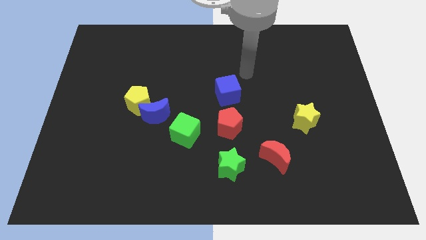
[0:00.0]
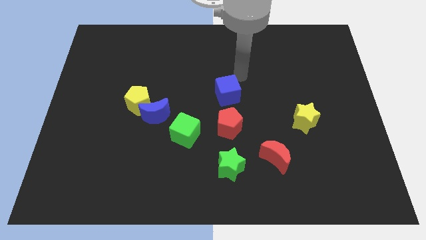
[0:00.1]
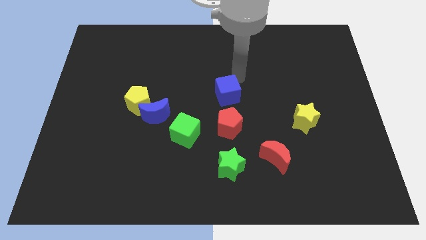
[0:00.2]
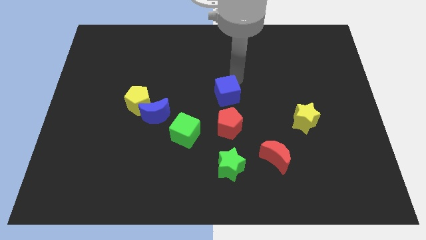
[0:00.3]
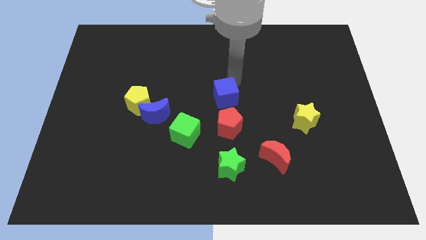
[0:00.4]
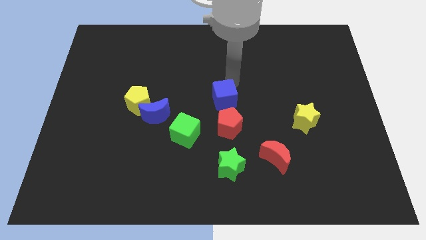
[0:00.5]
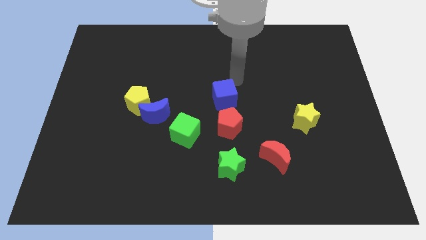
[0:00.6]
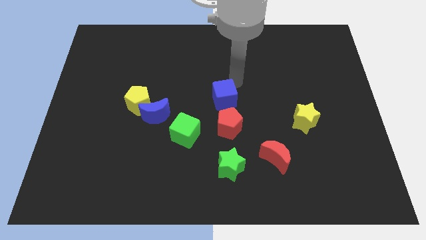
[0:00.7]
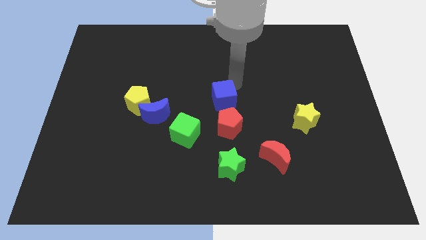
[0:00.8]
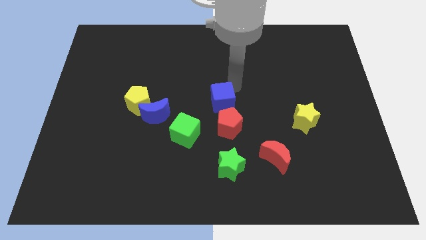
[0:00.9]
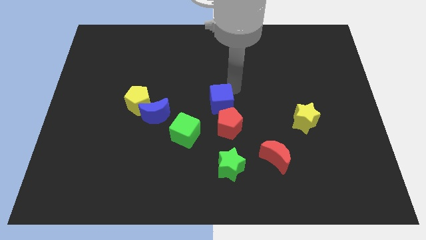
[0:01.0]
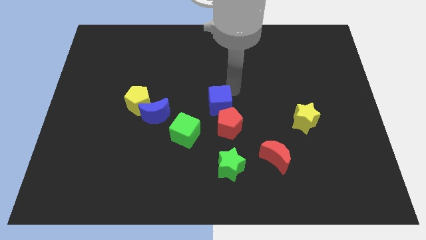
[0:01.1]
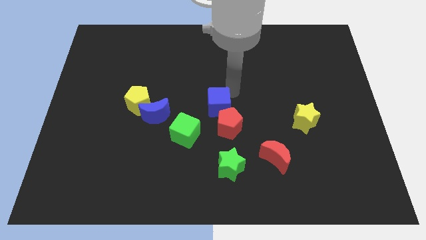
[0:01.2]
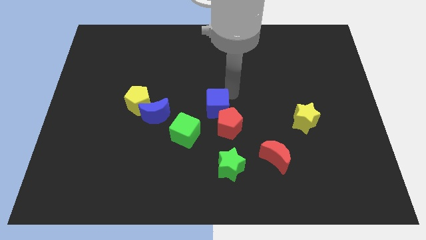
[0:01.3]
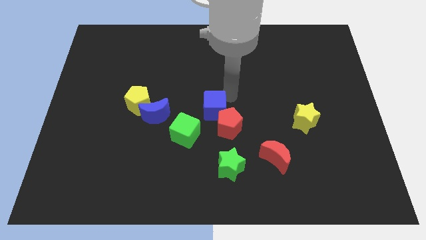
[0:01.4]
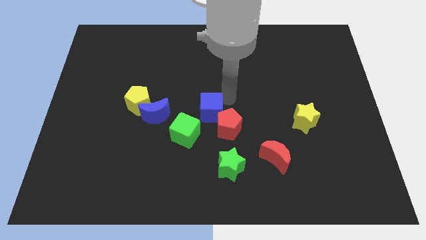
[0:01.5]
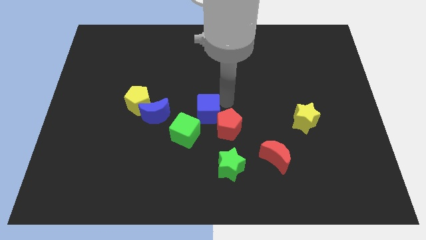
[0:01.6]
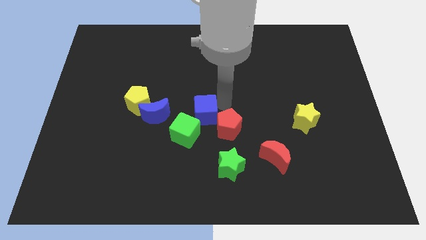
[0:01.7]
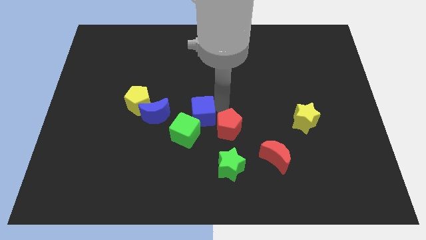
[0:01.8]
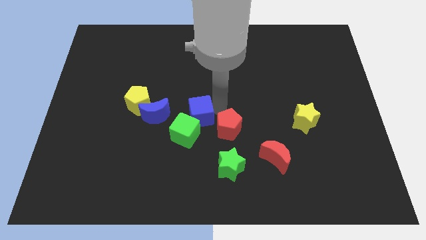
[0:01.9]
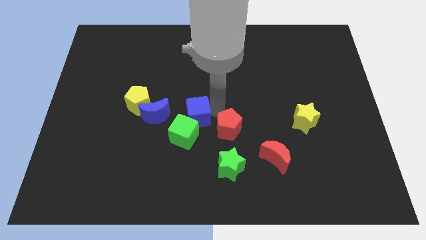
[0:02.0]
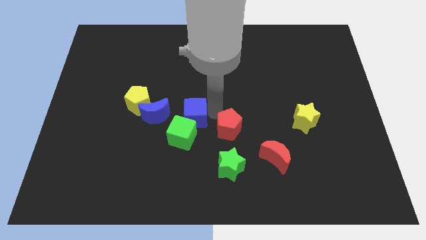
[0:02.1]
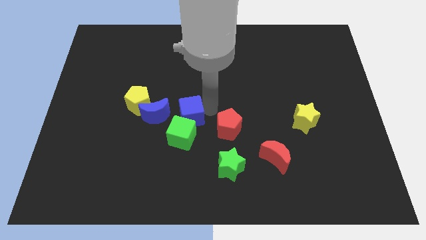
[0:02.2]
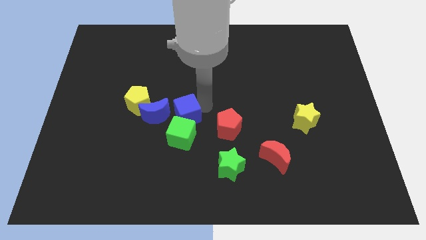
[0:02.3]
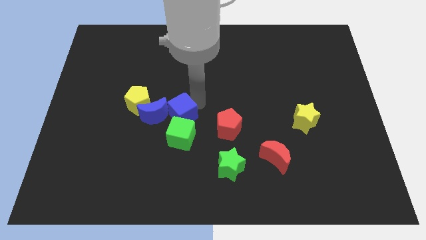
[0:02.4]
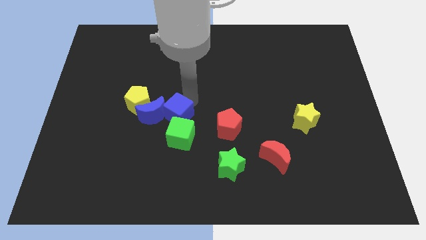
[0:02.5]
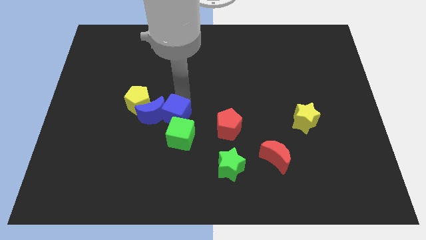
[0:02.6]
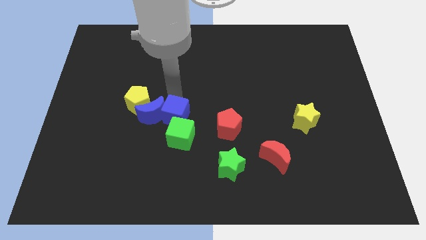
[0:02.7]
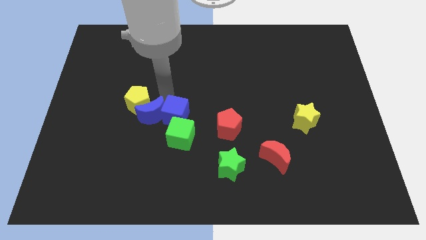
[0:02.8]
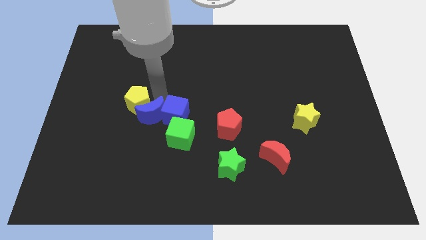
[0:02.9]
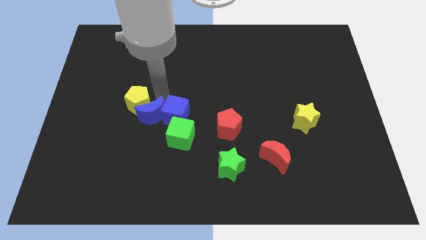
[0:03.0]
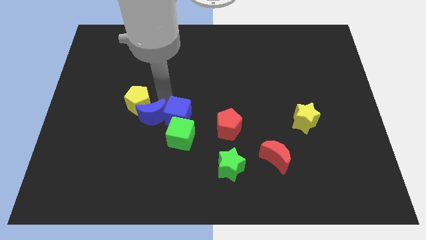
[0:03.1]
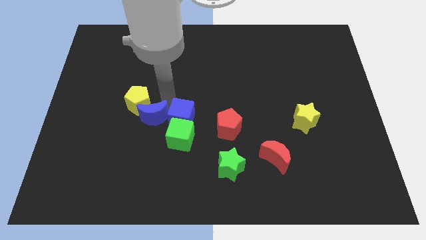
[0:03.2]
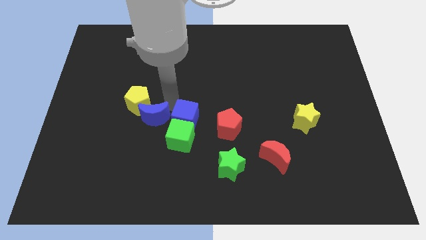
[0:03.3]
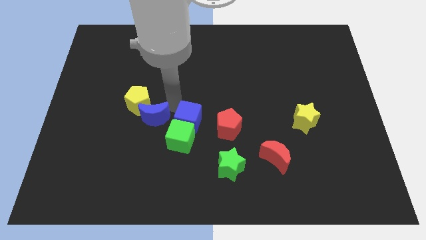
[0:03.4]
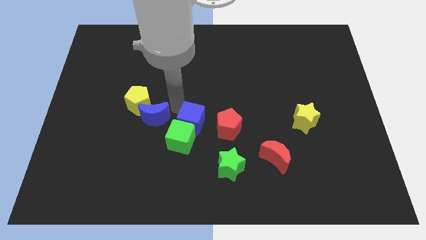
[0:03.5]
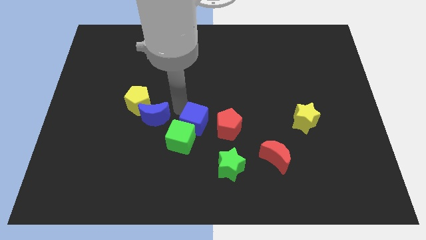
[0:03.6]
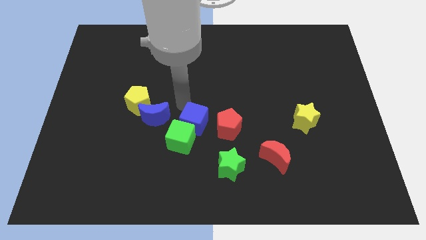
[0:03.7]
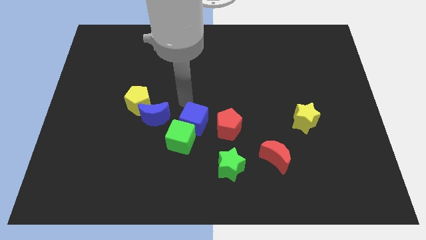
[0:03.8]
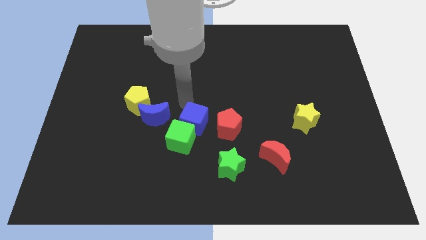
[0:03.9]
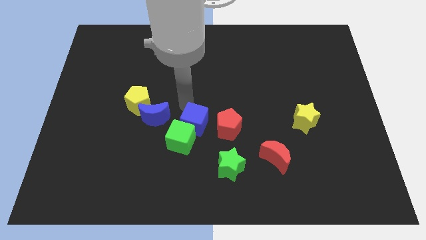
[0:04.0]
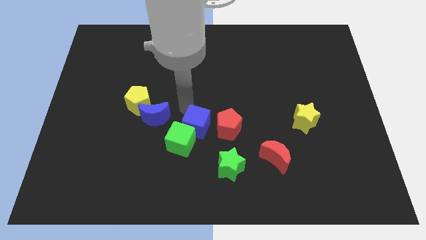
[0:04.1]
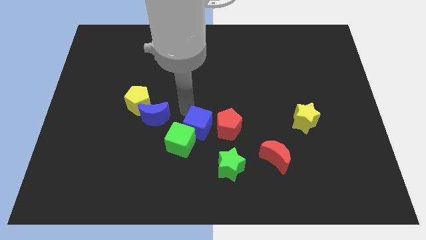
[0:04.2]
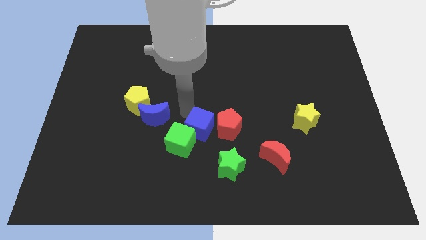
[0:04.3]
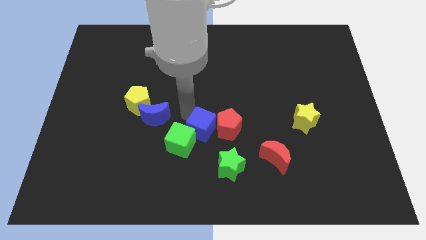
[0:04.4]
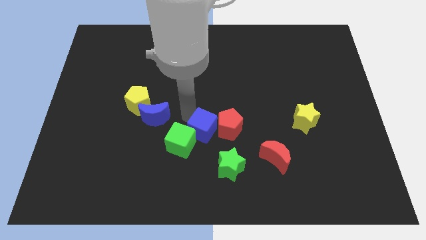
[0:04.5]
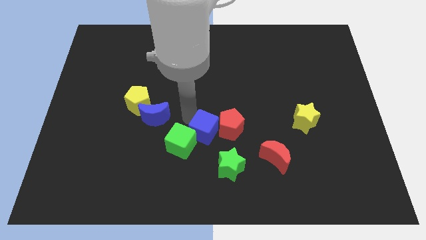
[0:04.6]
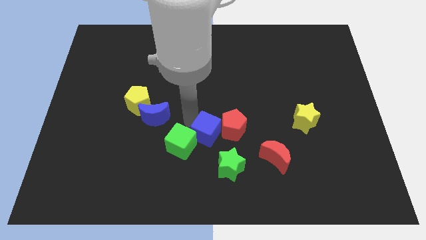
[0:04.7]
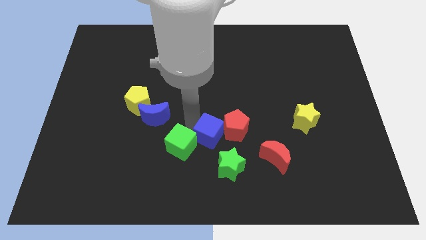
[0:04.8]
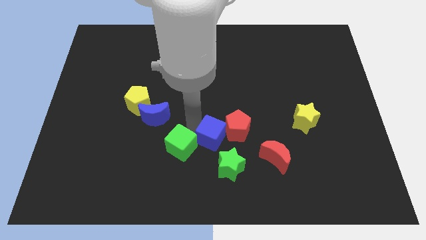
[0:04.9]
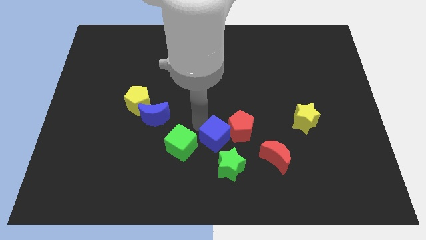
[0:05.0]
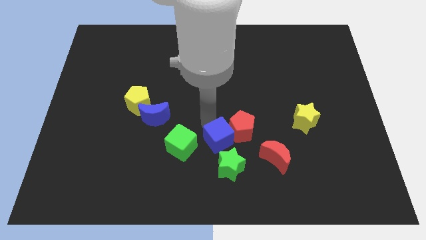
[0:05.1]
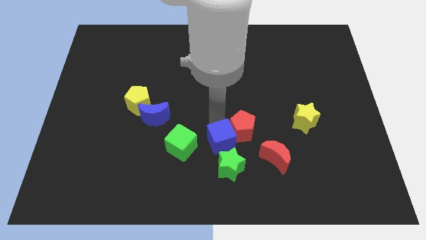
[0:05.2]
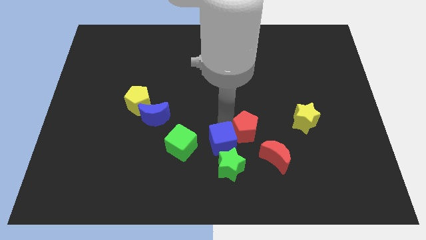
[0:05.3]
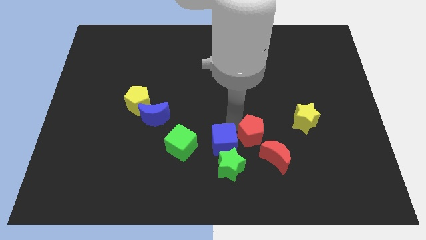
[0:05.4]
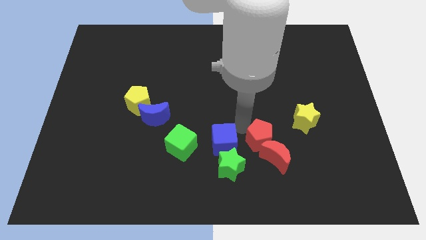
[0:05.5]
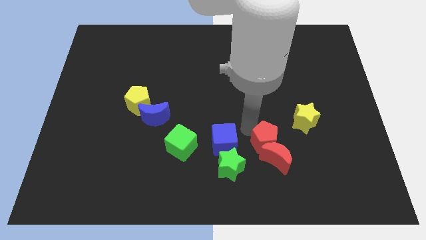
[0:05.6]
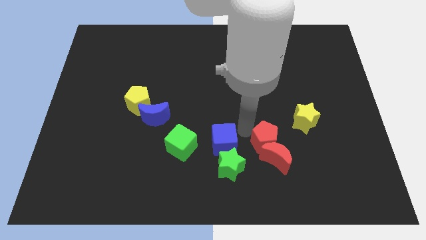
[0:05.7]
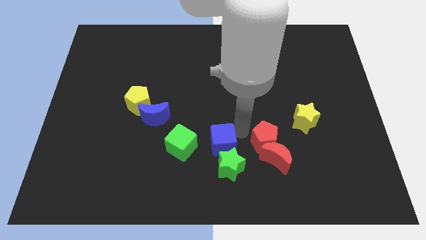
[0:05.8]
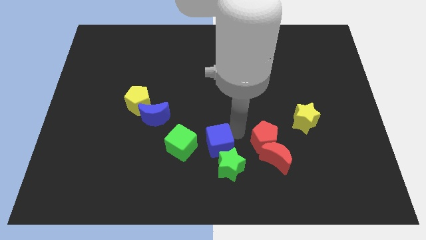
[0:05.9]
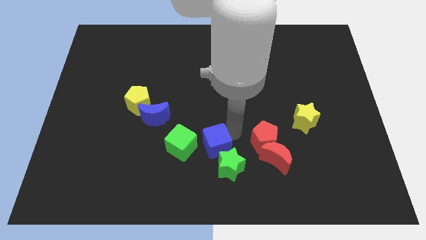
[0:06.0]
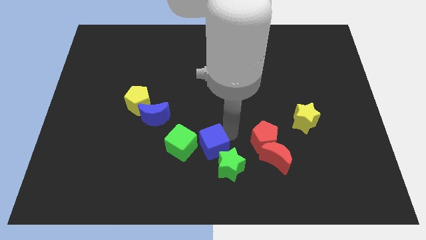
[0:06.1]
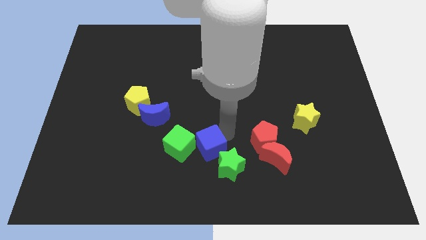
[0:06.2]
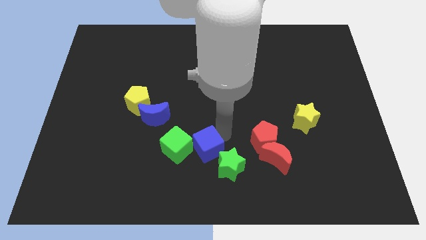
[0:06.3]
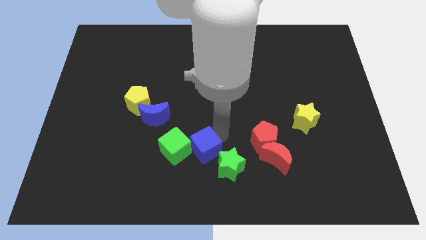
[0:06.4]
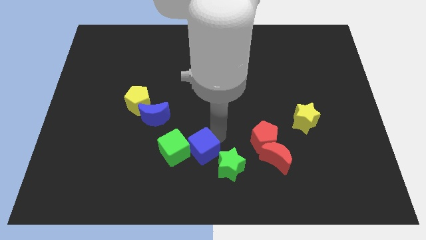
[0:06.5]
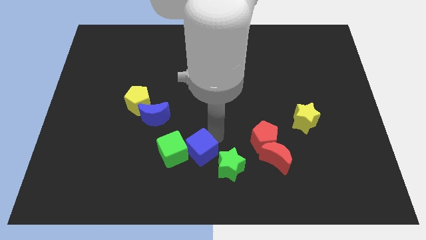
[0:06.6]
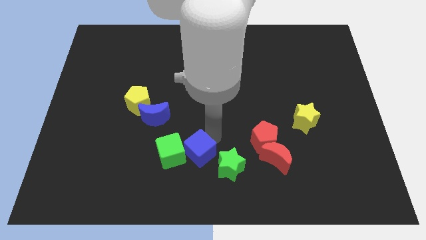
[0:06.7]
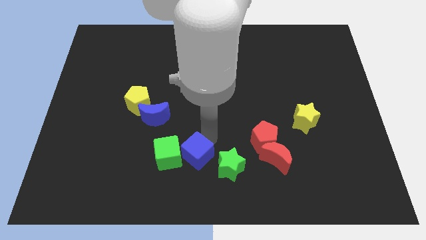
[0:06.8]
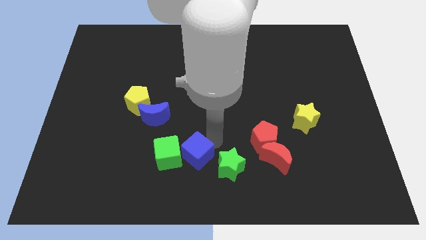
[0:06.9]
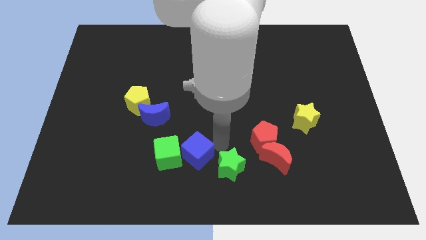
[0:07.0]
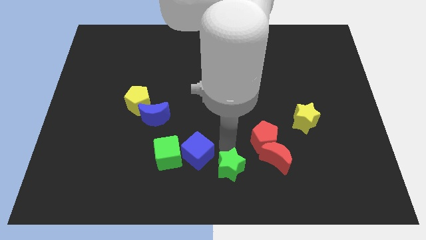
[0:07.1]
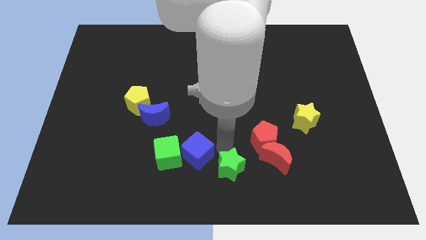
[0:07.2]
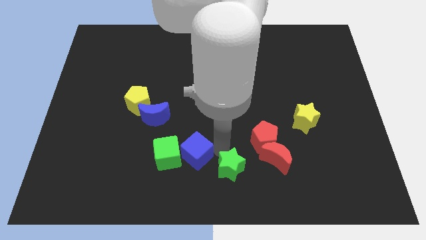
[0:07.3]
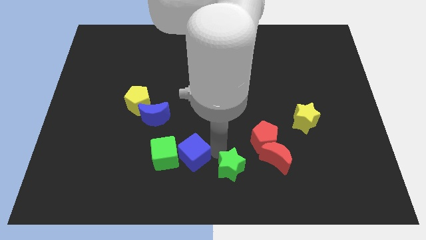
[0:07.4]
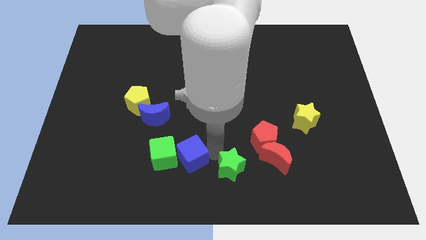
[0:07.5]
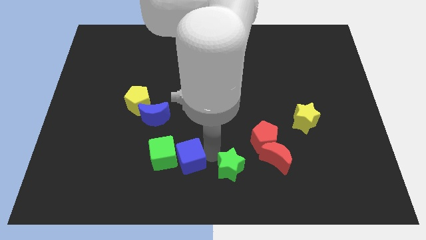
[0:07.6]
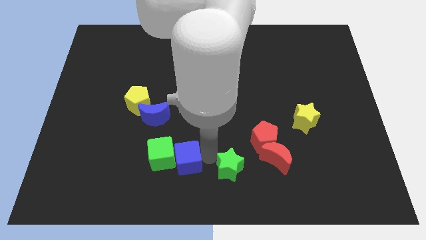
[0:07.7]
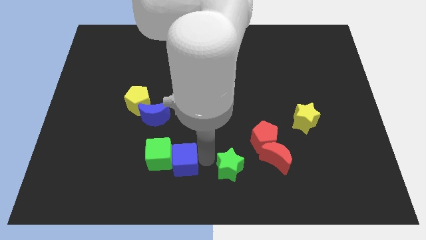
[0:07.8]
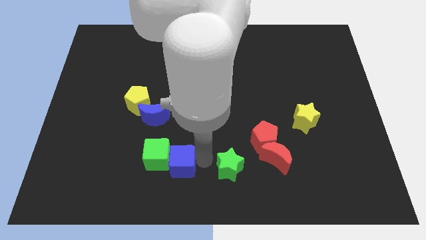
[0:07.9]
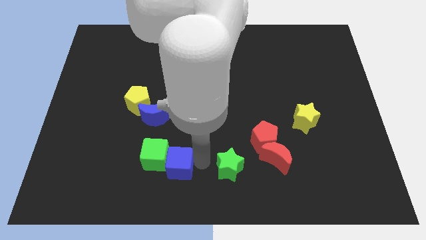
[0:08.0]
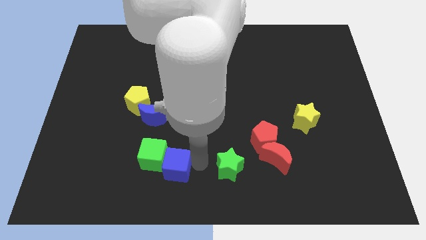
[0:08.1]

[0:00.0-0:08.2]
push the blue cube diagonally down and left
